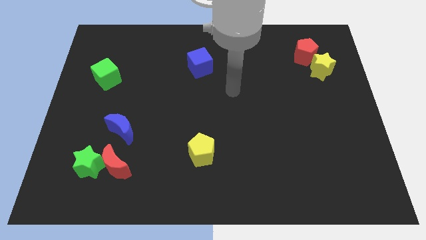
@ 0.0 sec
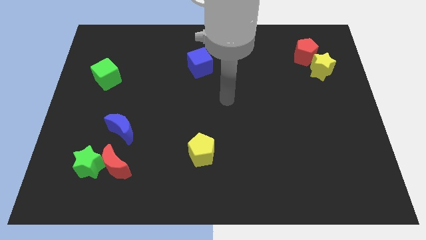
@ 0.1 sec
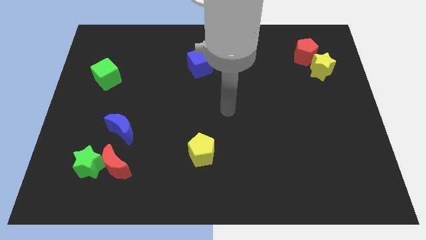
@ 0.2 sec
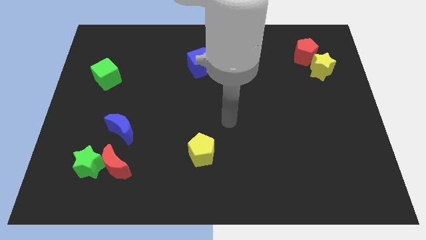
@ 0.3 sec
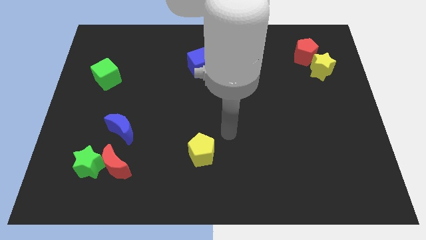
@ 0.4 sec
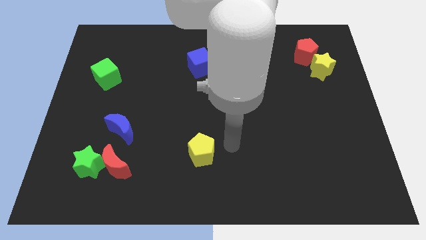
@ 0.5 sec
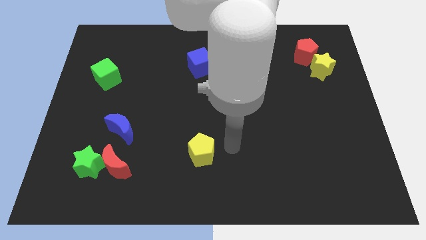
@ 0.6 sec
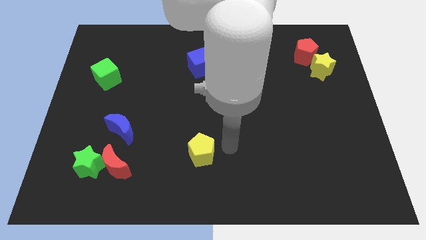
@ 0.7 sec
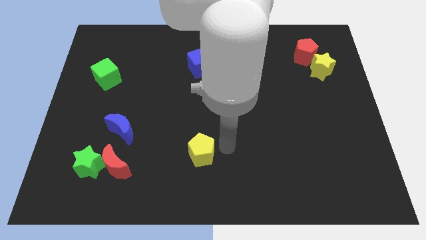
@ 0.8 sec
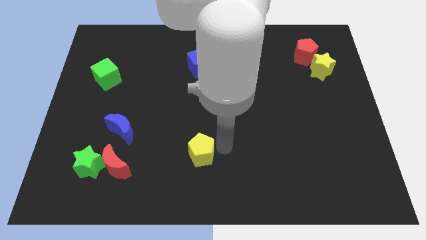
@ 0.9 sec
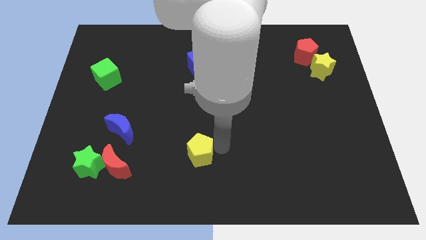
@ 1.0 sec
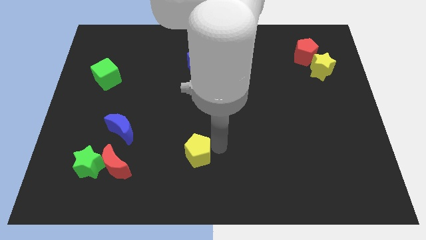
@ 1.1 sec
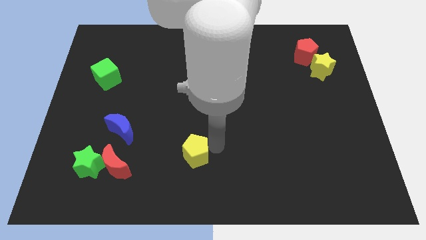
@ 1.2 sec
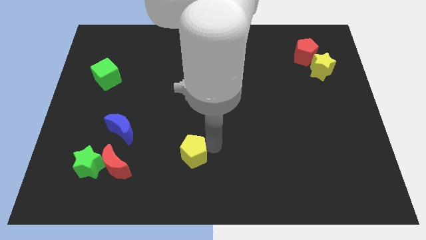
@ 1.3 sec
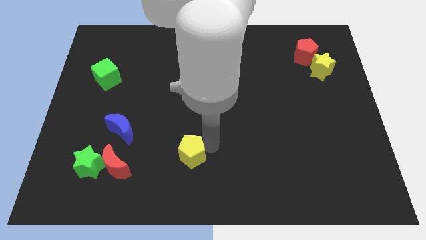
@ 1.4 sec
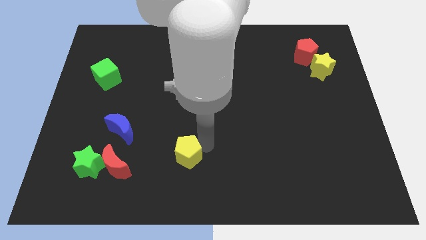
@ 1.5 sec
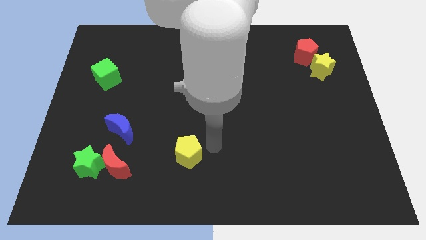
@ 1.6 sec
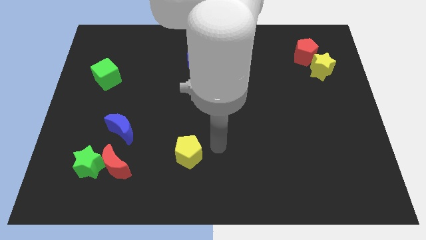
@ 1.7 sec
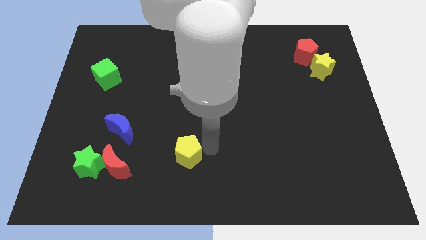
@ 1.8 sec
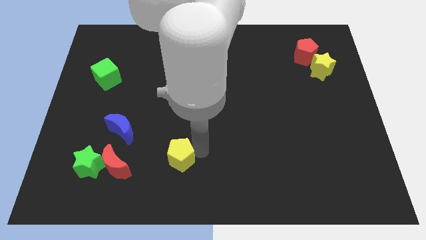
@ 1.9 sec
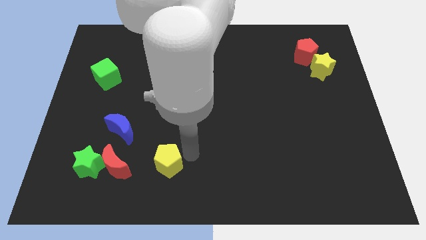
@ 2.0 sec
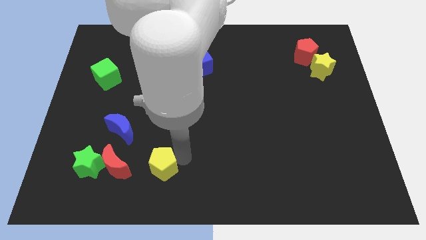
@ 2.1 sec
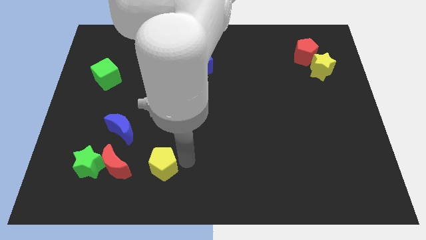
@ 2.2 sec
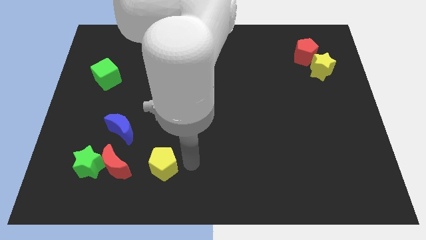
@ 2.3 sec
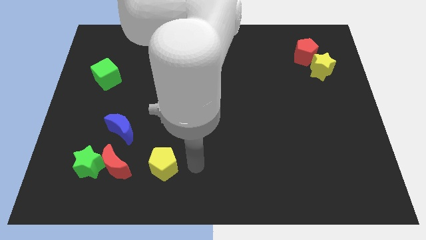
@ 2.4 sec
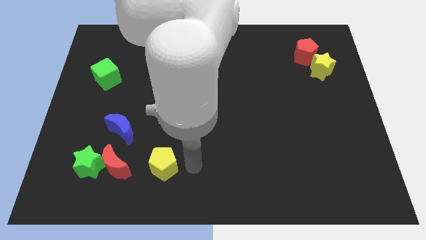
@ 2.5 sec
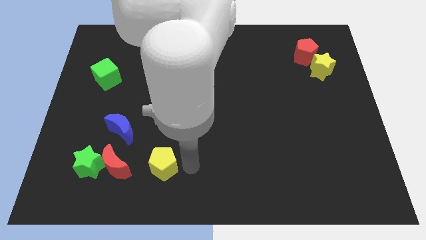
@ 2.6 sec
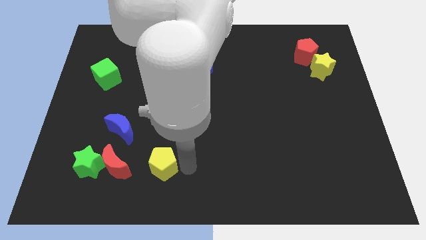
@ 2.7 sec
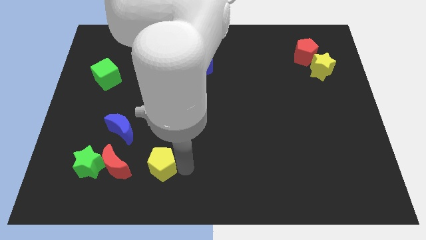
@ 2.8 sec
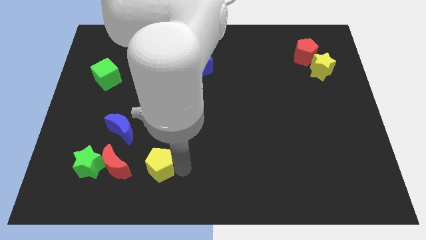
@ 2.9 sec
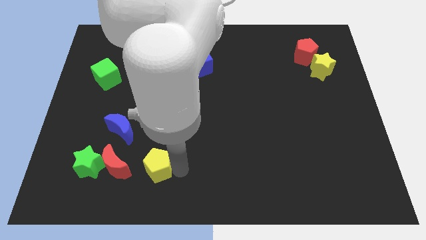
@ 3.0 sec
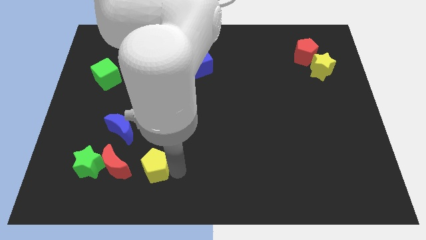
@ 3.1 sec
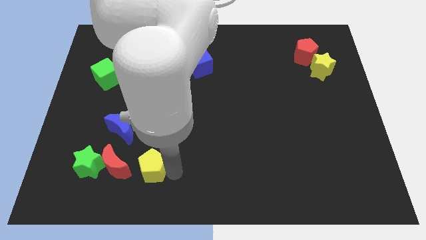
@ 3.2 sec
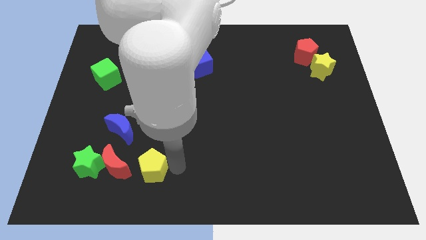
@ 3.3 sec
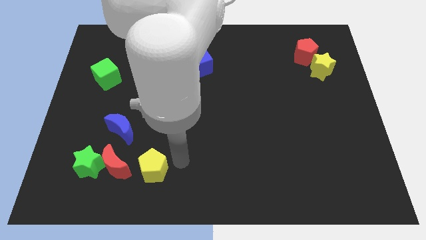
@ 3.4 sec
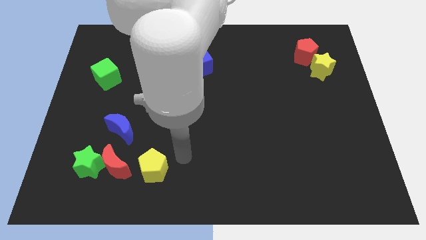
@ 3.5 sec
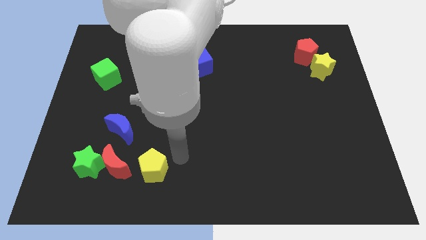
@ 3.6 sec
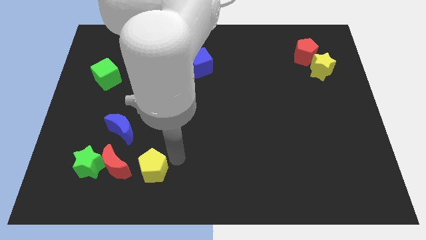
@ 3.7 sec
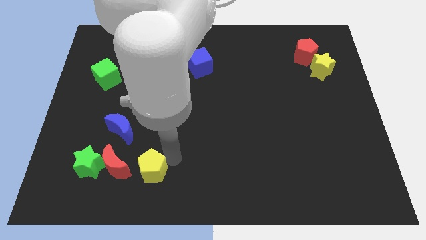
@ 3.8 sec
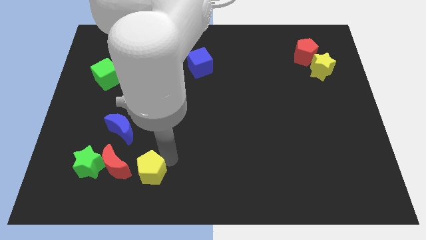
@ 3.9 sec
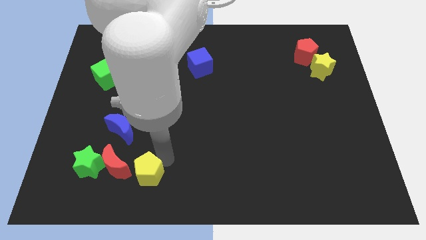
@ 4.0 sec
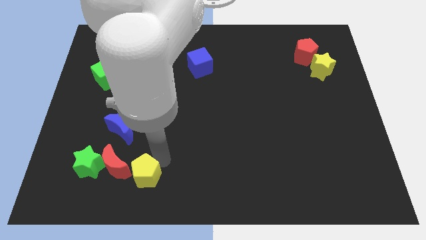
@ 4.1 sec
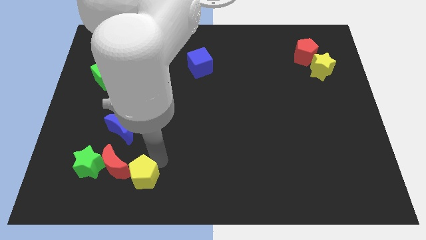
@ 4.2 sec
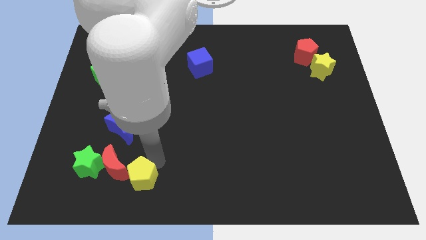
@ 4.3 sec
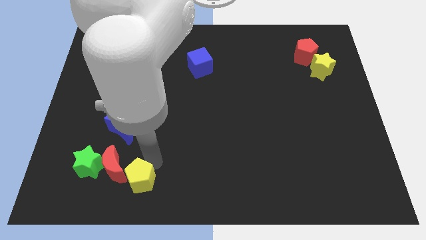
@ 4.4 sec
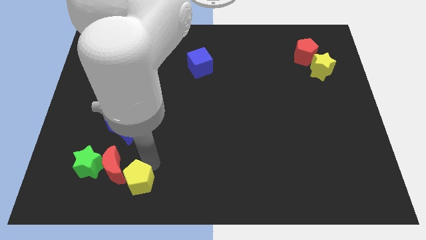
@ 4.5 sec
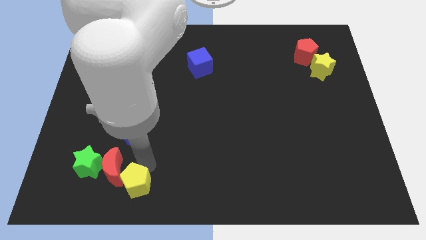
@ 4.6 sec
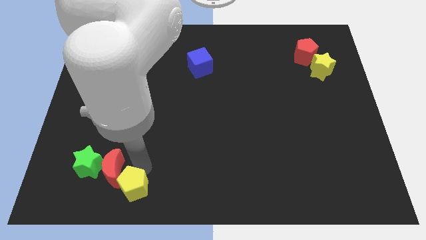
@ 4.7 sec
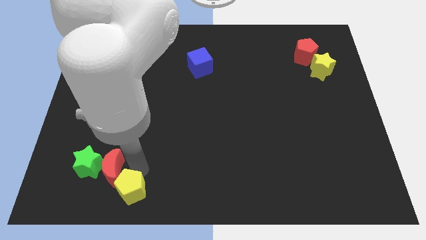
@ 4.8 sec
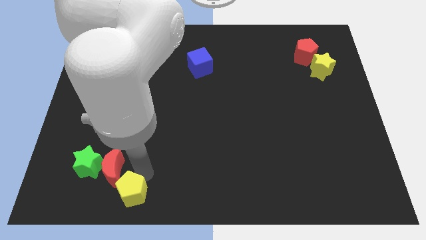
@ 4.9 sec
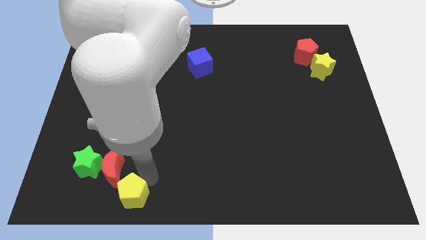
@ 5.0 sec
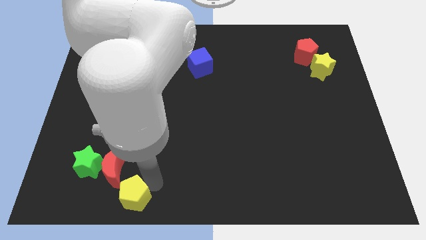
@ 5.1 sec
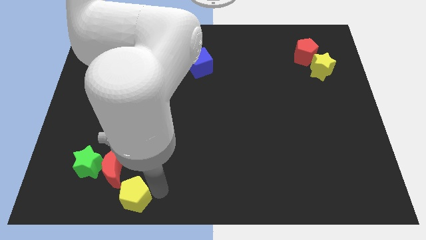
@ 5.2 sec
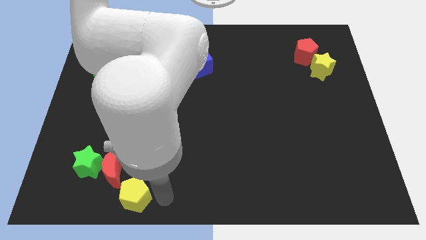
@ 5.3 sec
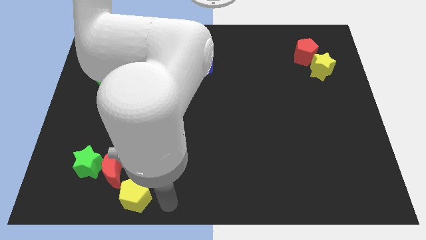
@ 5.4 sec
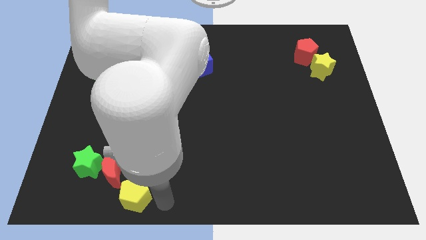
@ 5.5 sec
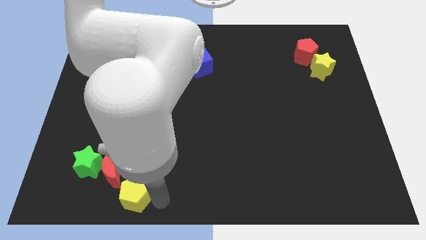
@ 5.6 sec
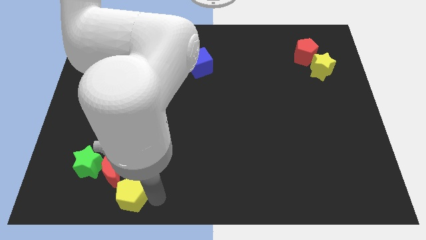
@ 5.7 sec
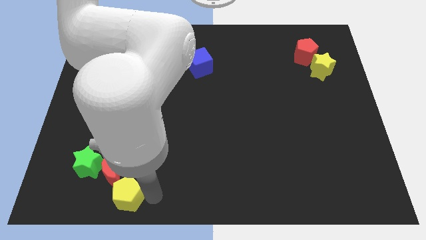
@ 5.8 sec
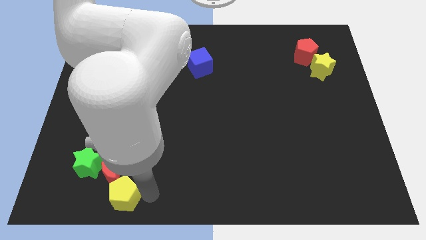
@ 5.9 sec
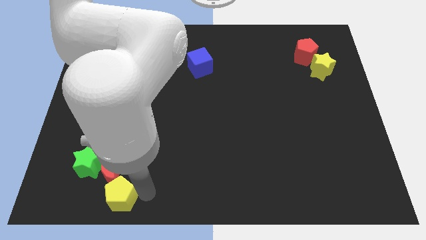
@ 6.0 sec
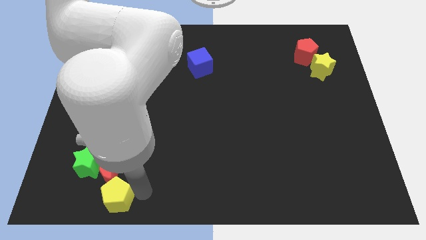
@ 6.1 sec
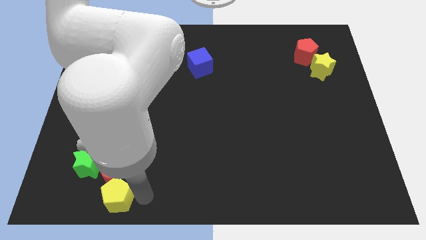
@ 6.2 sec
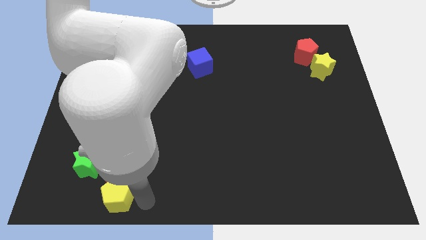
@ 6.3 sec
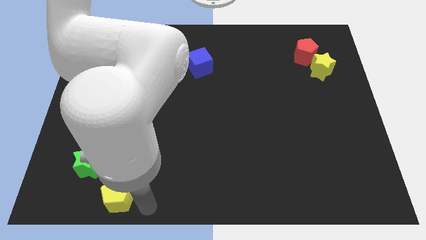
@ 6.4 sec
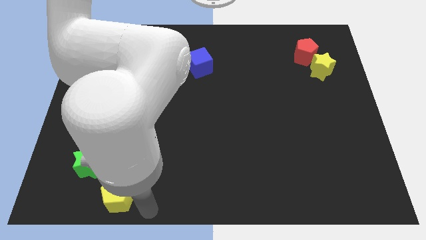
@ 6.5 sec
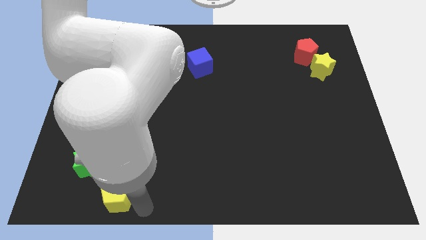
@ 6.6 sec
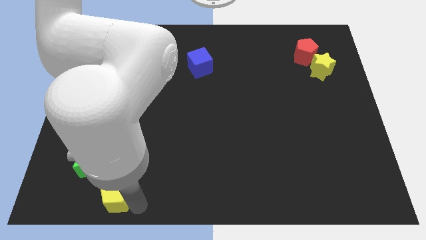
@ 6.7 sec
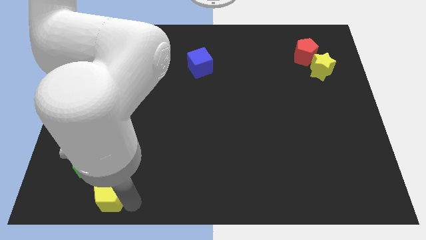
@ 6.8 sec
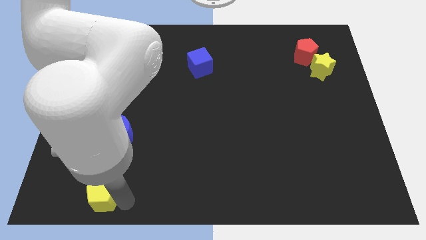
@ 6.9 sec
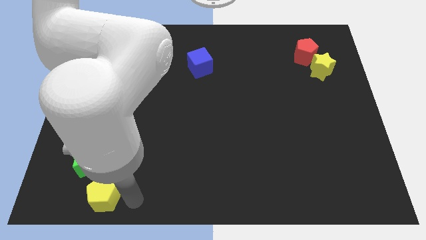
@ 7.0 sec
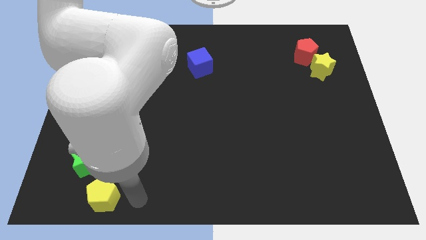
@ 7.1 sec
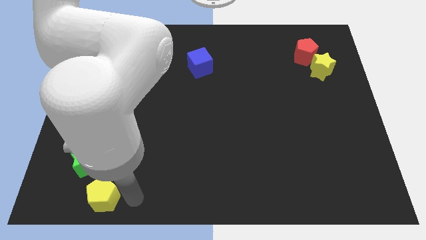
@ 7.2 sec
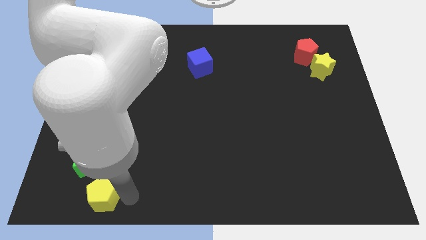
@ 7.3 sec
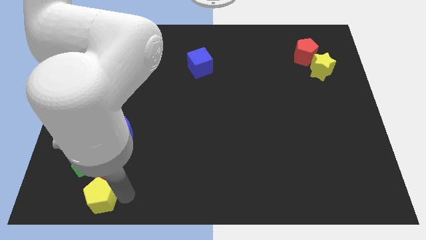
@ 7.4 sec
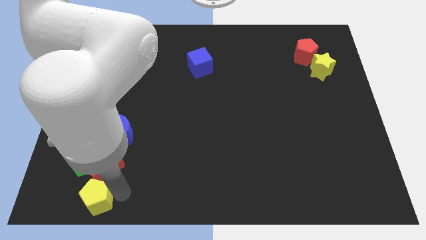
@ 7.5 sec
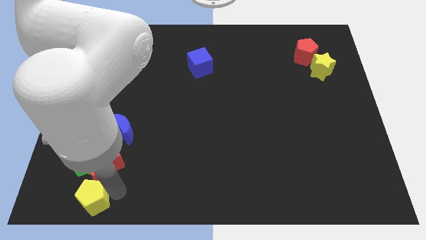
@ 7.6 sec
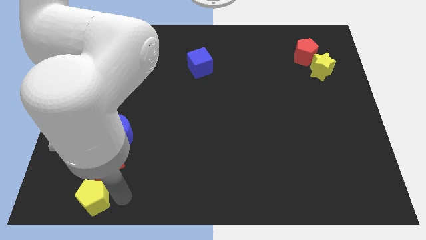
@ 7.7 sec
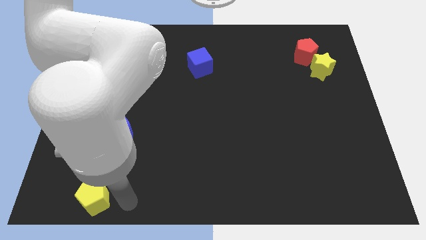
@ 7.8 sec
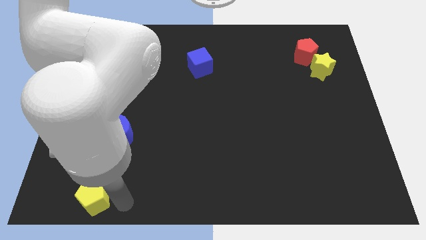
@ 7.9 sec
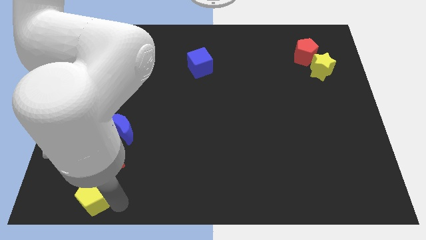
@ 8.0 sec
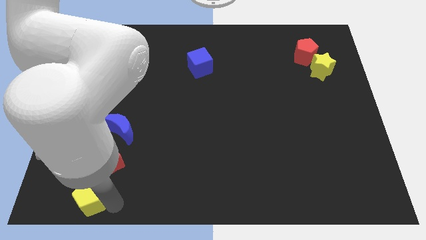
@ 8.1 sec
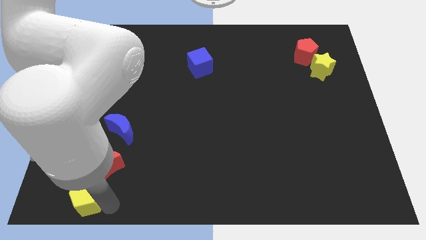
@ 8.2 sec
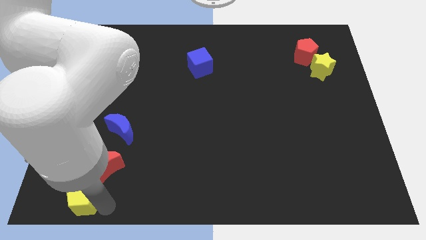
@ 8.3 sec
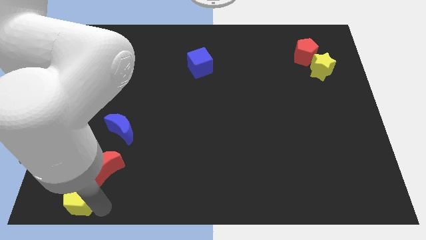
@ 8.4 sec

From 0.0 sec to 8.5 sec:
push the yellow pentagon to the bottom left of the board

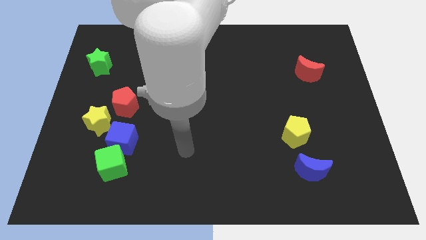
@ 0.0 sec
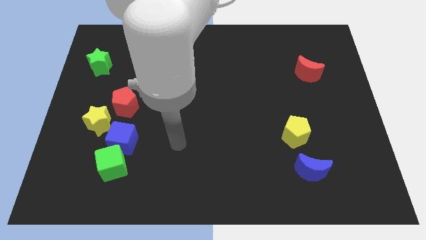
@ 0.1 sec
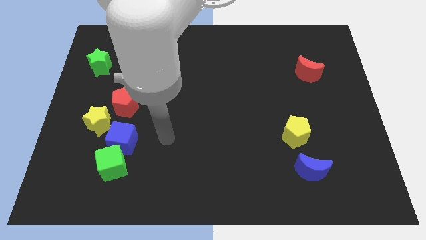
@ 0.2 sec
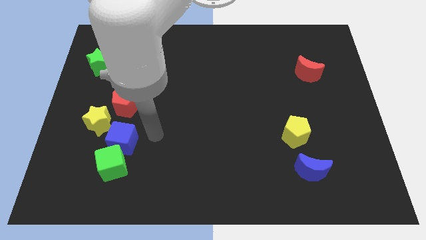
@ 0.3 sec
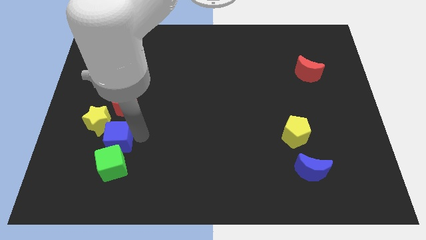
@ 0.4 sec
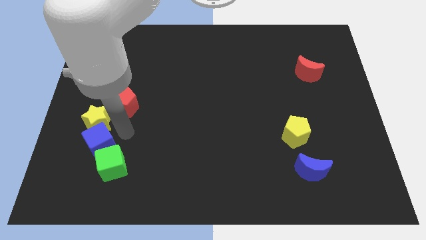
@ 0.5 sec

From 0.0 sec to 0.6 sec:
slide the yellow star to the left side
